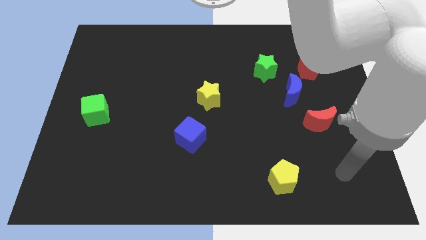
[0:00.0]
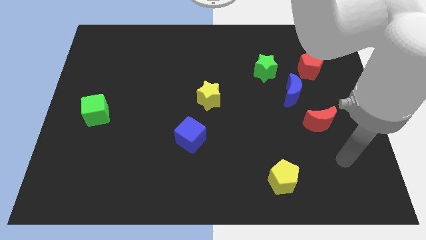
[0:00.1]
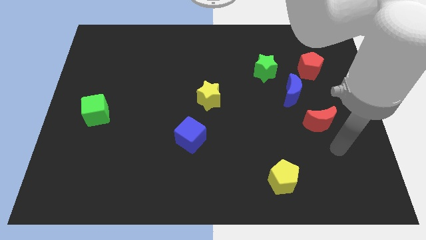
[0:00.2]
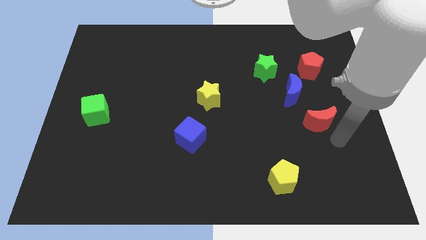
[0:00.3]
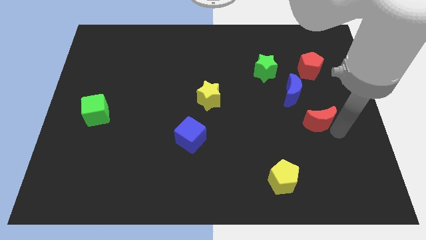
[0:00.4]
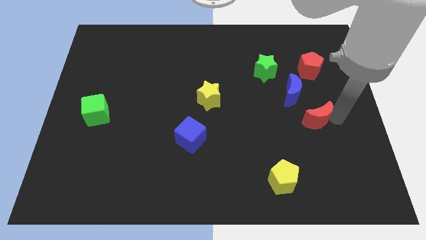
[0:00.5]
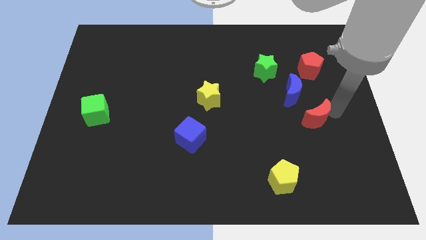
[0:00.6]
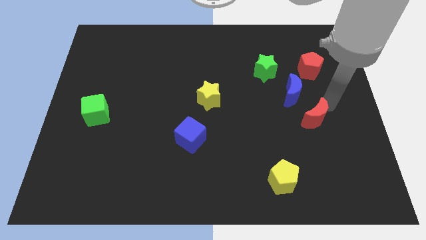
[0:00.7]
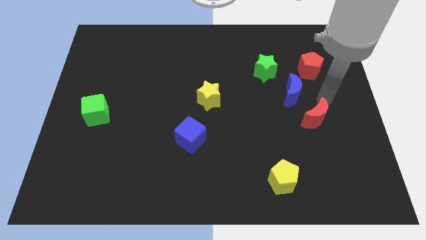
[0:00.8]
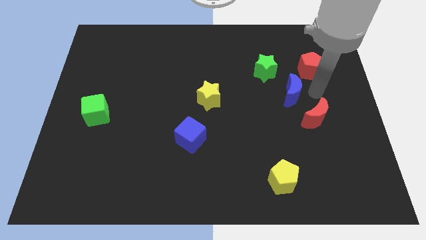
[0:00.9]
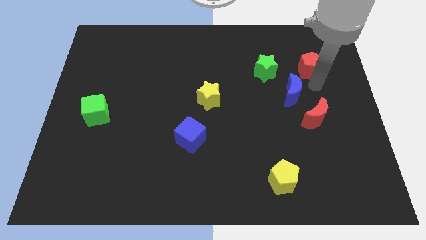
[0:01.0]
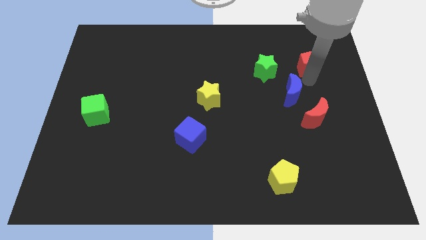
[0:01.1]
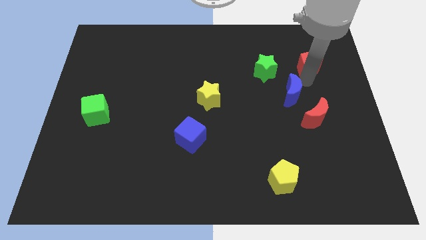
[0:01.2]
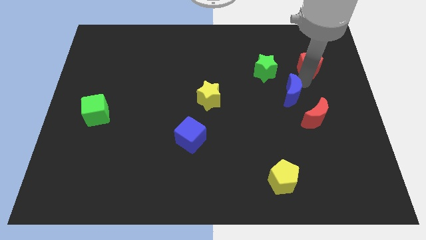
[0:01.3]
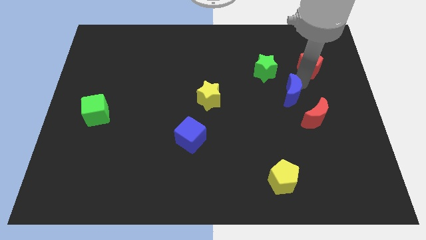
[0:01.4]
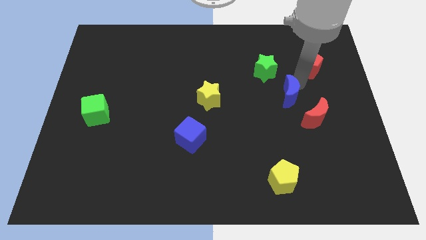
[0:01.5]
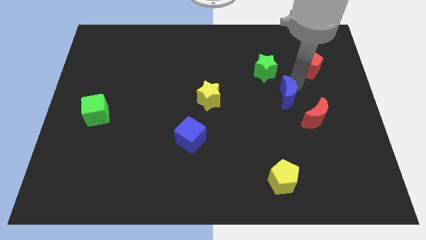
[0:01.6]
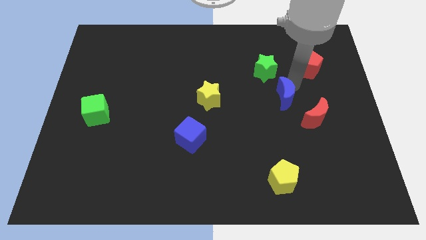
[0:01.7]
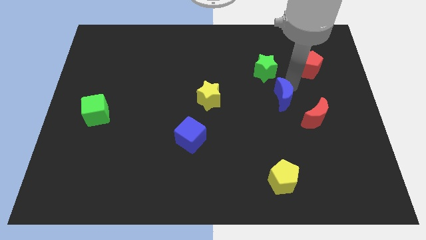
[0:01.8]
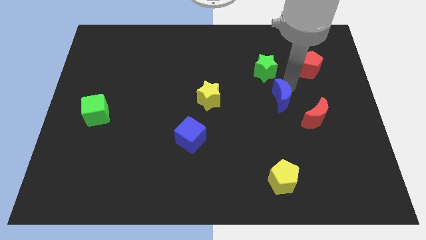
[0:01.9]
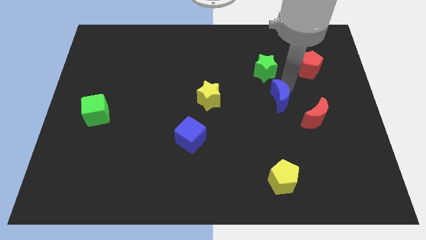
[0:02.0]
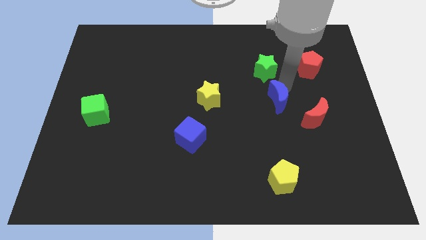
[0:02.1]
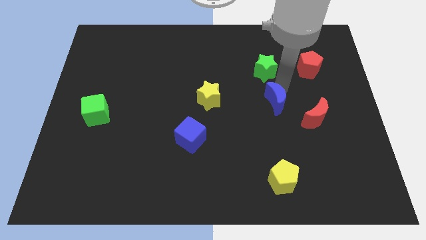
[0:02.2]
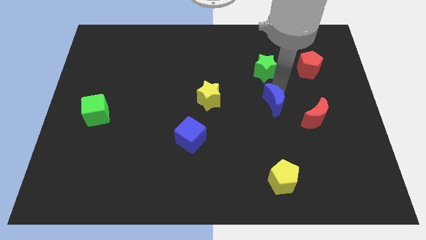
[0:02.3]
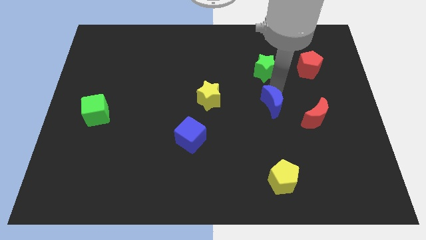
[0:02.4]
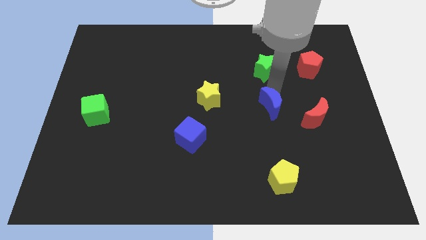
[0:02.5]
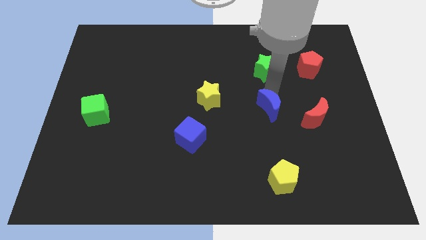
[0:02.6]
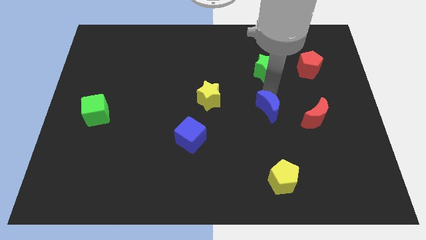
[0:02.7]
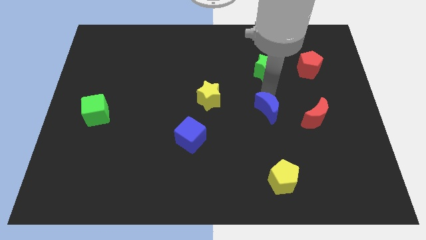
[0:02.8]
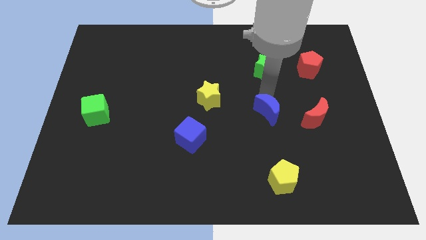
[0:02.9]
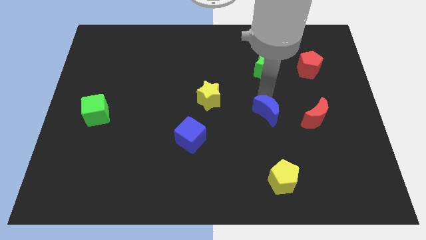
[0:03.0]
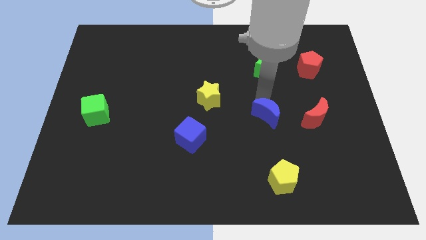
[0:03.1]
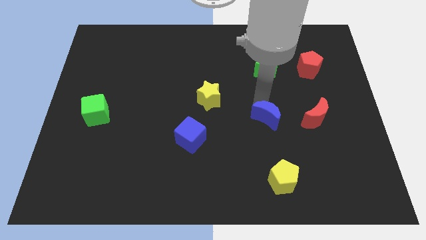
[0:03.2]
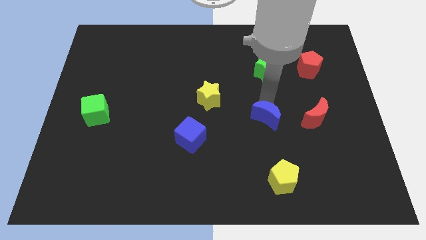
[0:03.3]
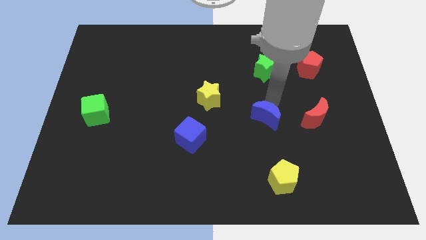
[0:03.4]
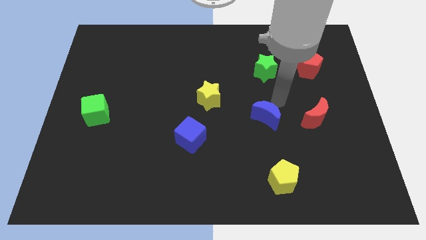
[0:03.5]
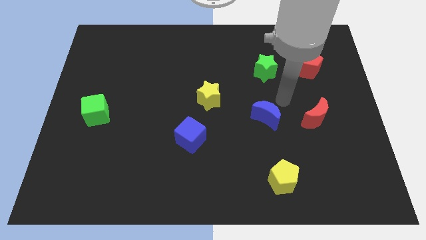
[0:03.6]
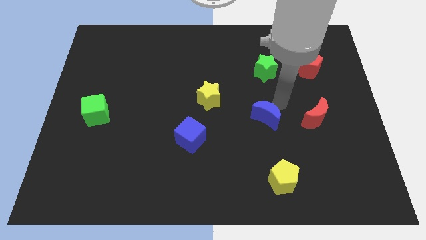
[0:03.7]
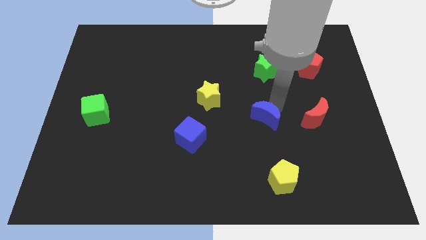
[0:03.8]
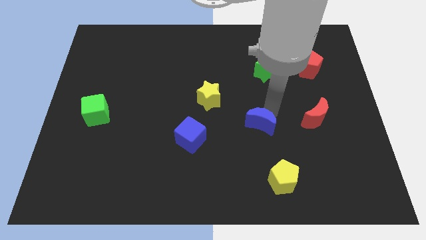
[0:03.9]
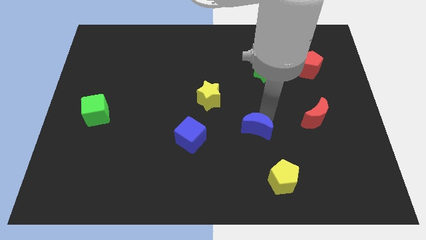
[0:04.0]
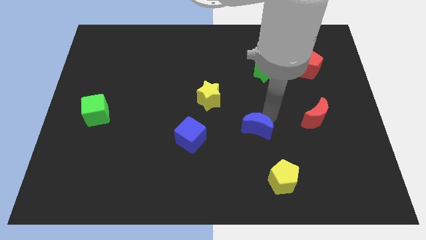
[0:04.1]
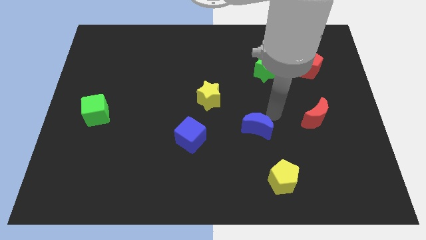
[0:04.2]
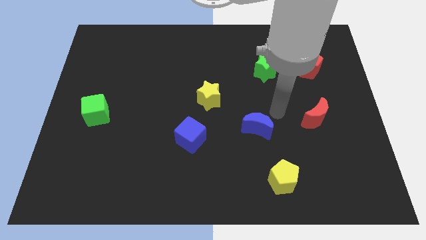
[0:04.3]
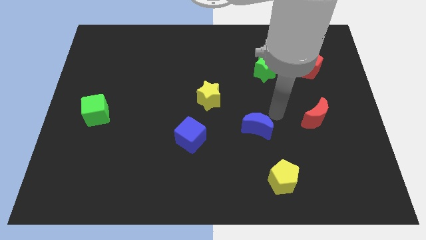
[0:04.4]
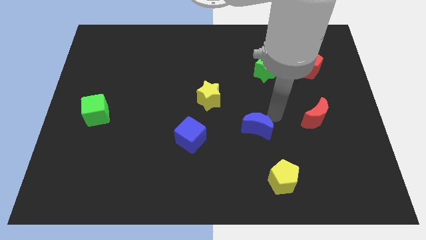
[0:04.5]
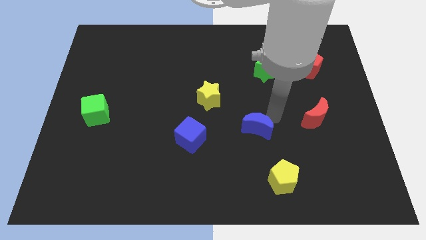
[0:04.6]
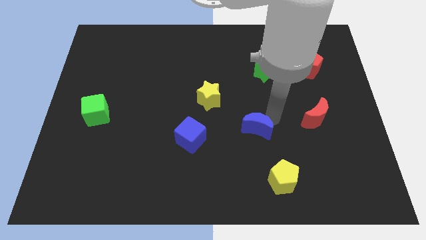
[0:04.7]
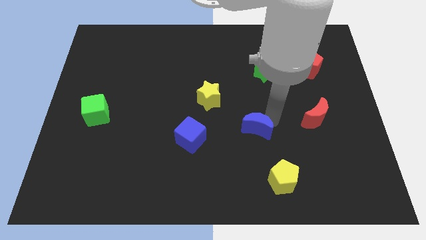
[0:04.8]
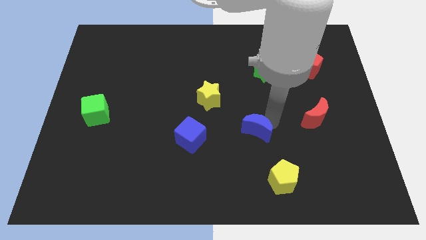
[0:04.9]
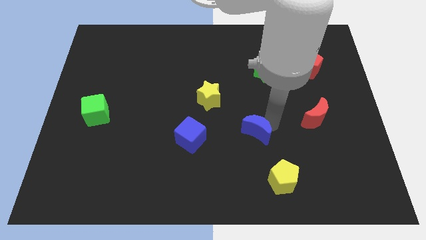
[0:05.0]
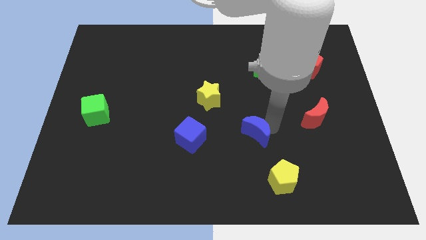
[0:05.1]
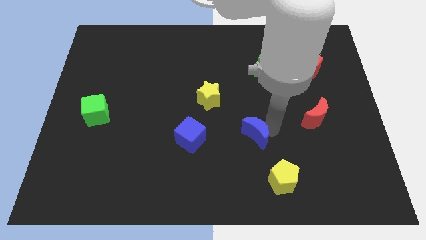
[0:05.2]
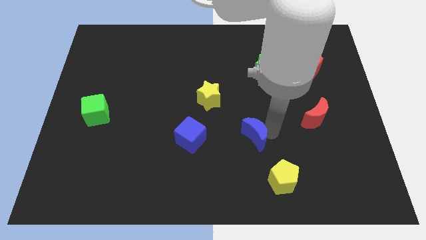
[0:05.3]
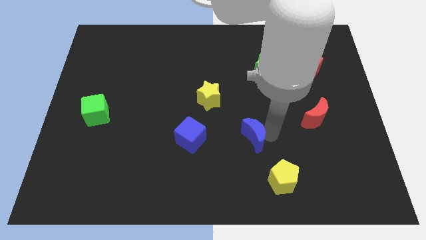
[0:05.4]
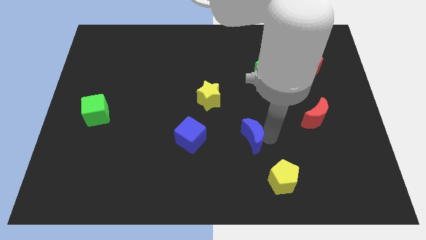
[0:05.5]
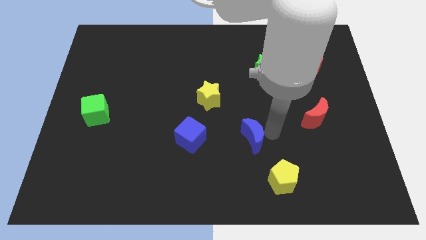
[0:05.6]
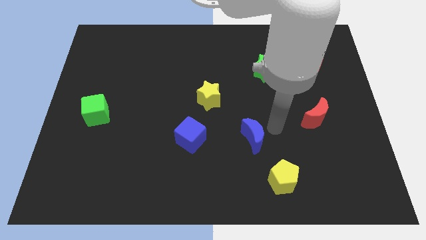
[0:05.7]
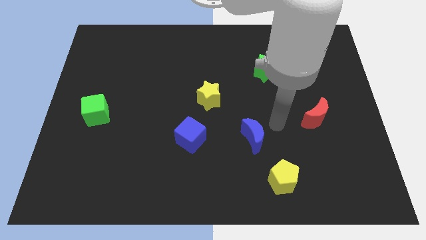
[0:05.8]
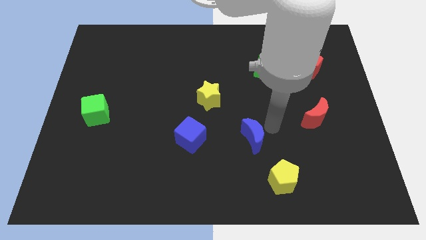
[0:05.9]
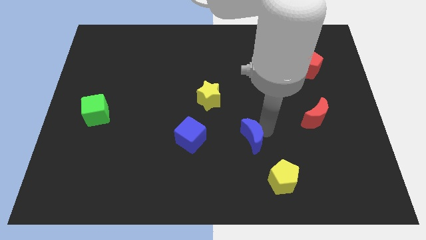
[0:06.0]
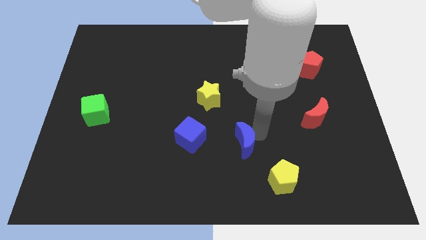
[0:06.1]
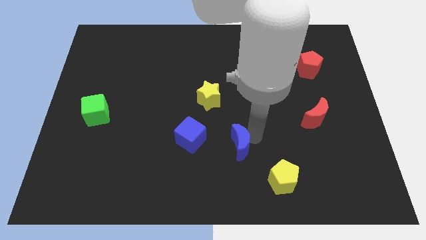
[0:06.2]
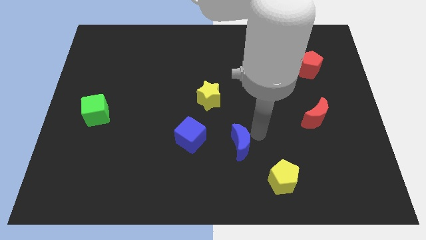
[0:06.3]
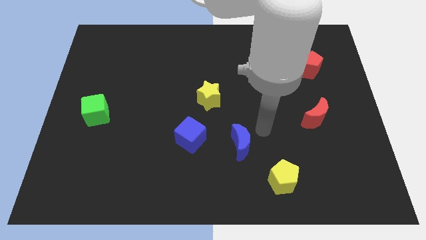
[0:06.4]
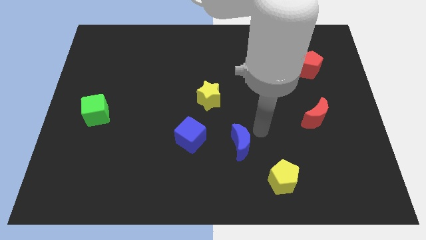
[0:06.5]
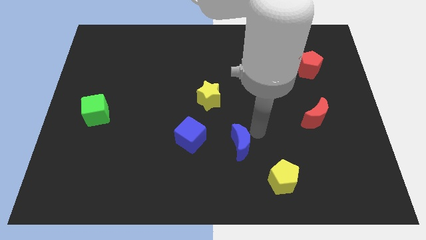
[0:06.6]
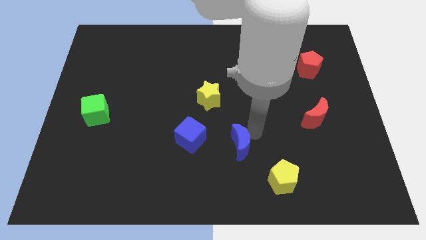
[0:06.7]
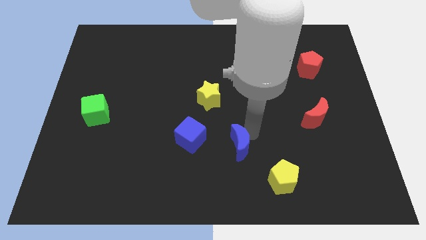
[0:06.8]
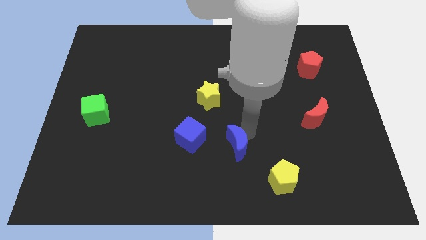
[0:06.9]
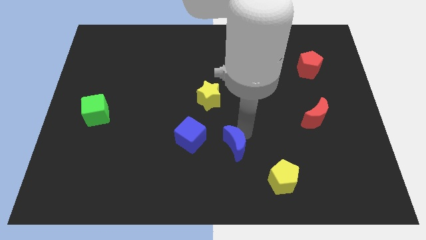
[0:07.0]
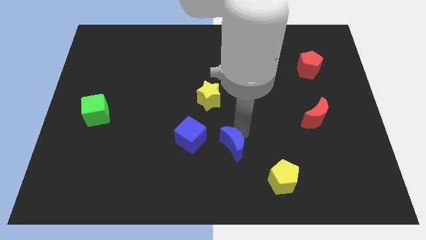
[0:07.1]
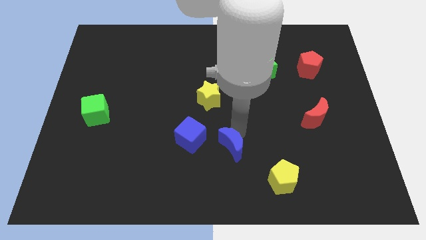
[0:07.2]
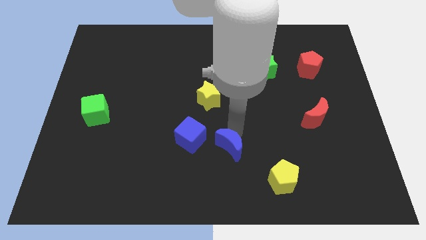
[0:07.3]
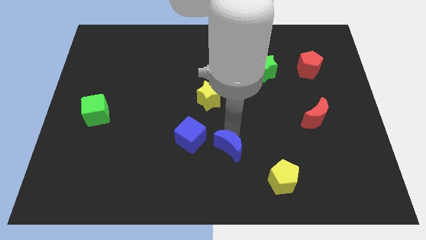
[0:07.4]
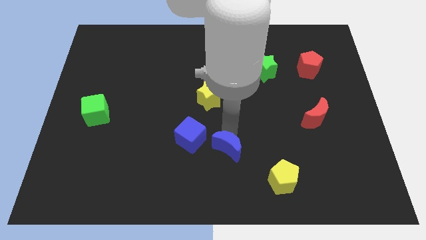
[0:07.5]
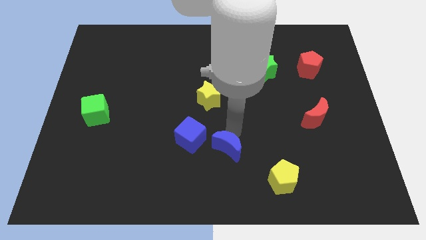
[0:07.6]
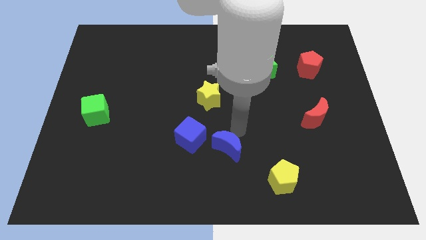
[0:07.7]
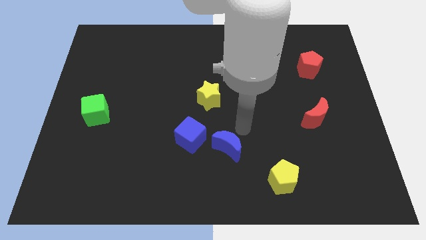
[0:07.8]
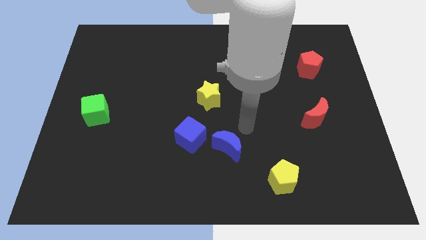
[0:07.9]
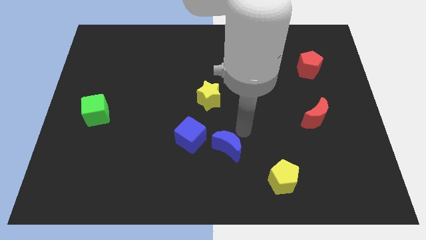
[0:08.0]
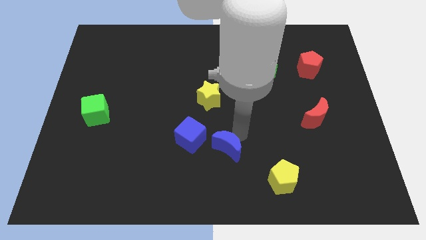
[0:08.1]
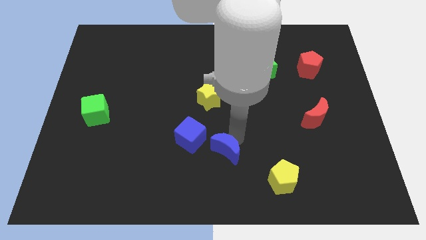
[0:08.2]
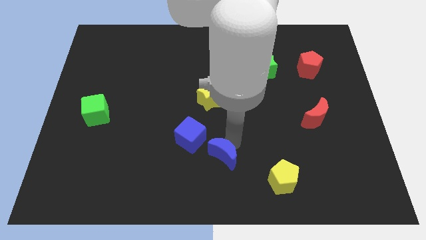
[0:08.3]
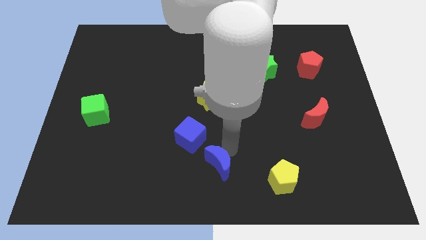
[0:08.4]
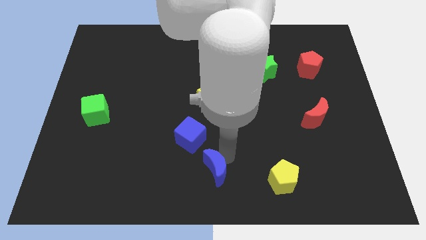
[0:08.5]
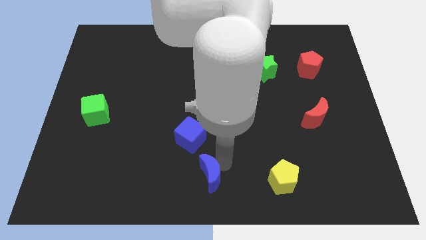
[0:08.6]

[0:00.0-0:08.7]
slide the blue moon to the bottom side of the blue cube
